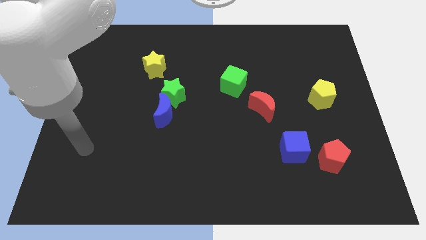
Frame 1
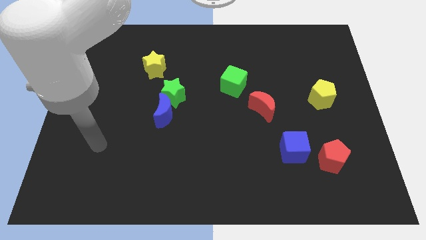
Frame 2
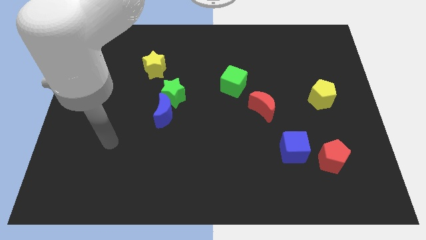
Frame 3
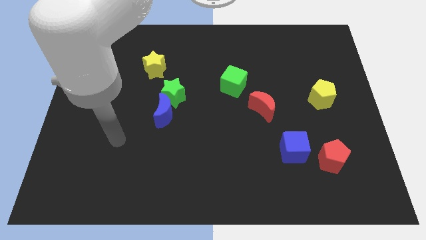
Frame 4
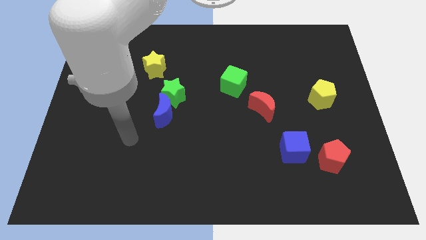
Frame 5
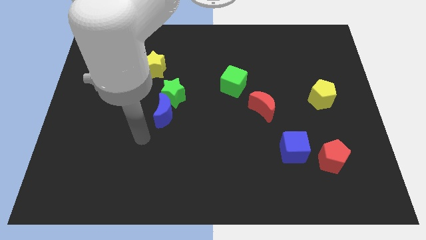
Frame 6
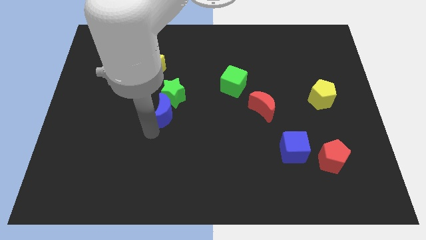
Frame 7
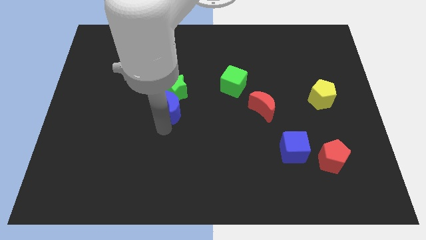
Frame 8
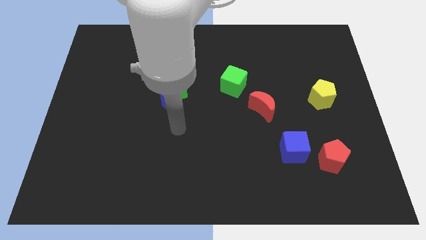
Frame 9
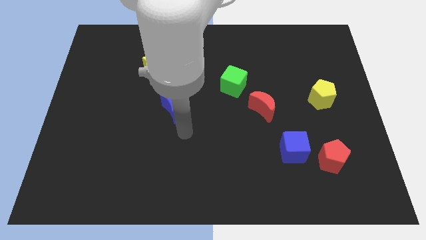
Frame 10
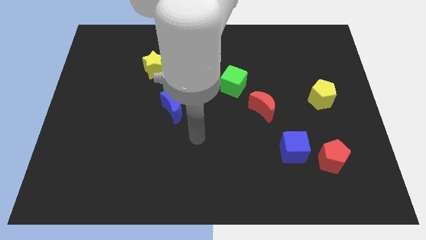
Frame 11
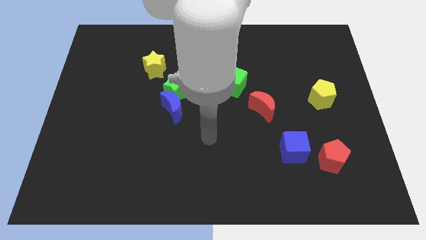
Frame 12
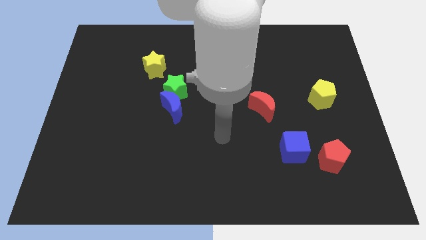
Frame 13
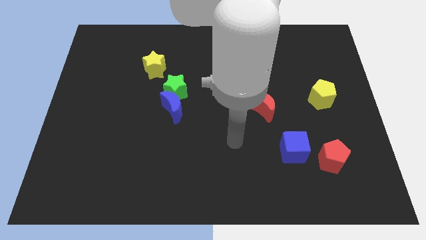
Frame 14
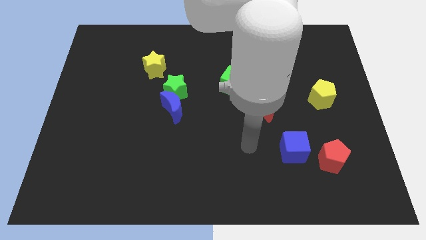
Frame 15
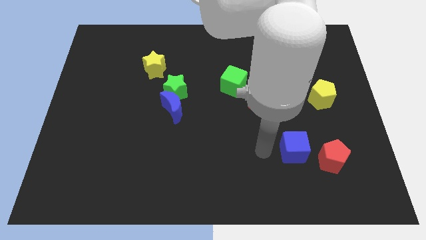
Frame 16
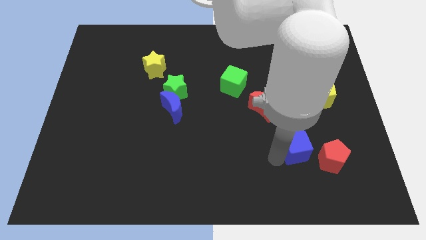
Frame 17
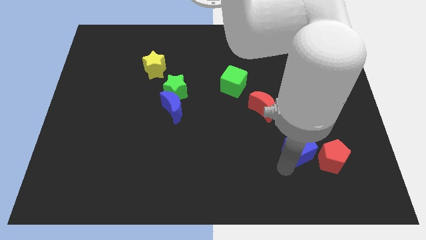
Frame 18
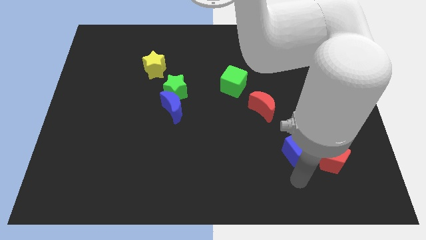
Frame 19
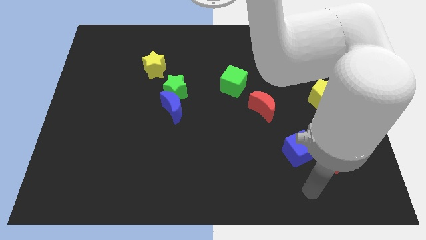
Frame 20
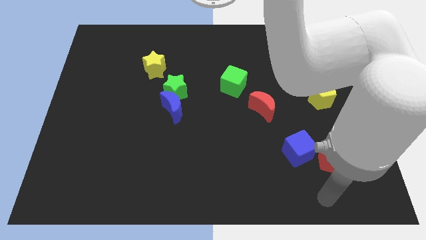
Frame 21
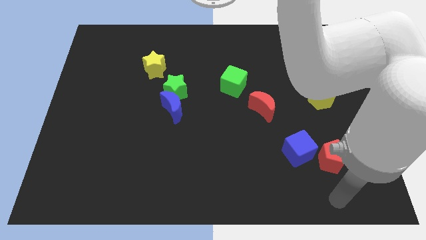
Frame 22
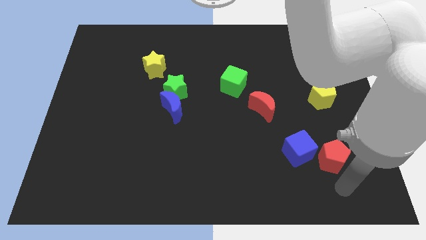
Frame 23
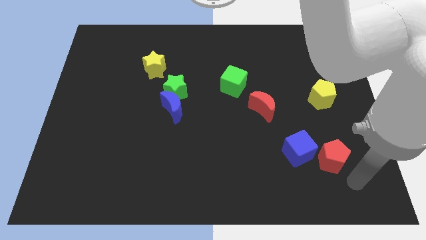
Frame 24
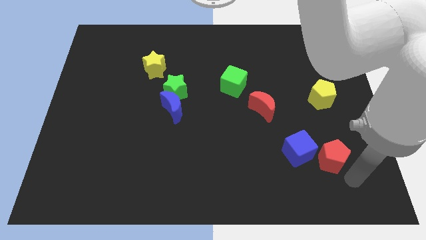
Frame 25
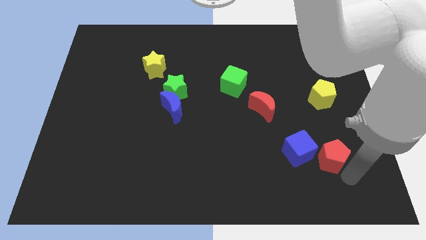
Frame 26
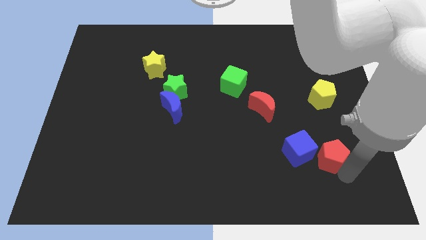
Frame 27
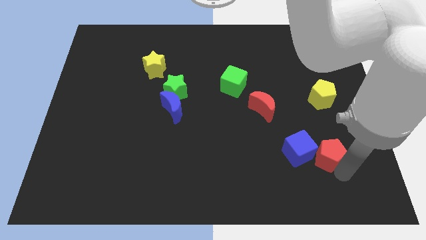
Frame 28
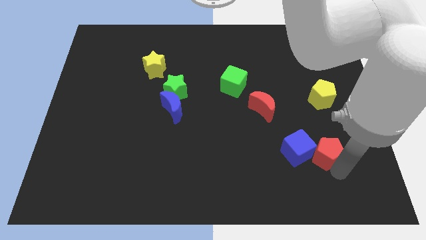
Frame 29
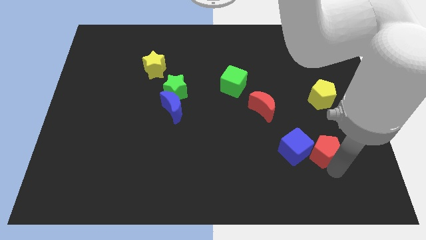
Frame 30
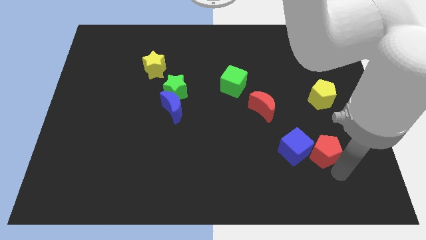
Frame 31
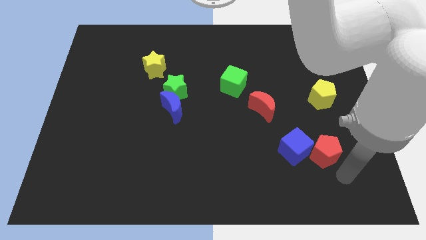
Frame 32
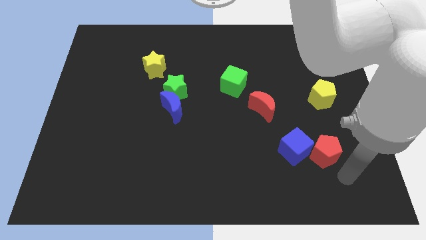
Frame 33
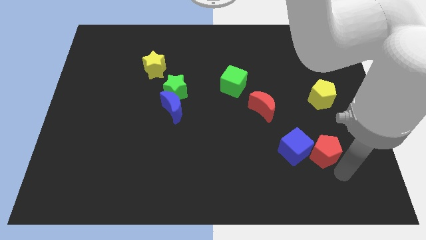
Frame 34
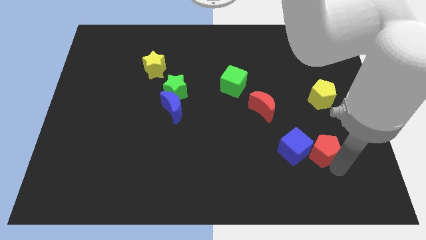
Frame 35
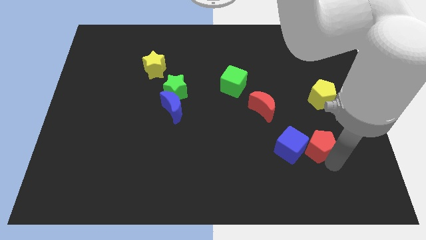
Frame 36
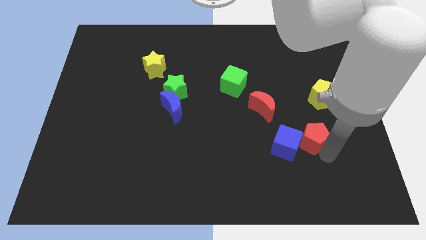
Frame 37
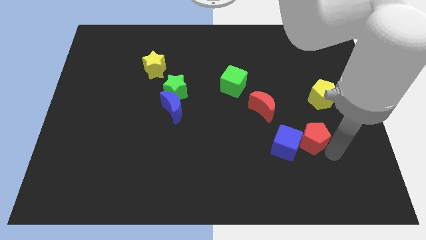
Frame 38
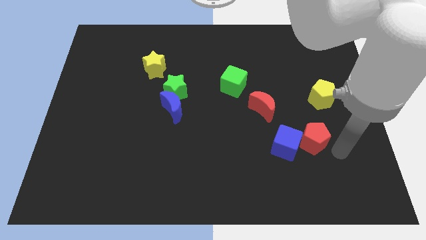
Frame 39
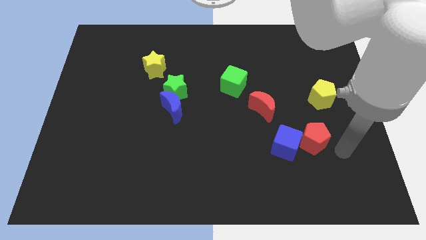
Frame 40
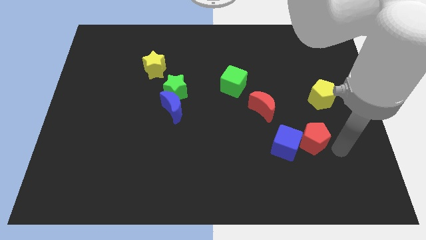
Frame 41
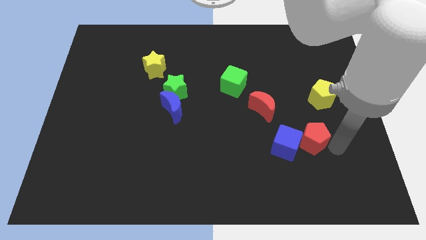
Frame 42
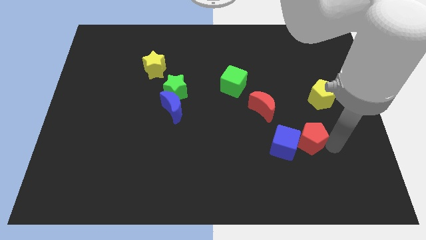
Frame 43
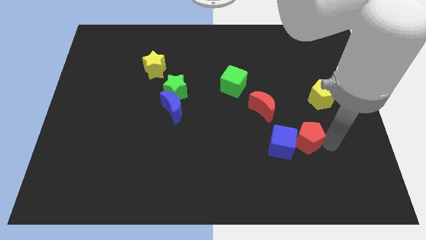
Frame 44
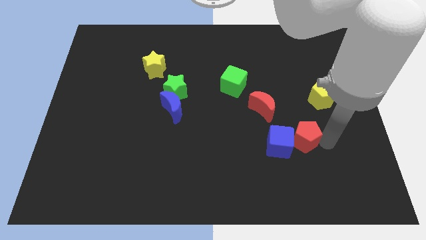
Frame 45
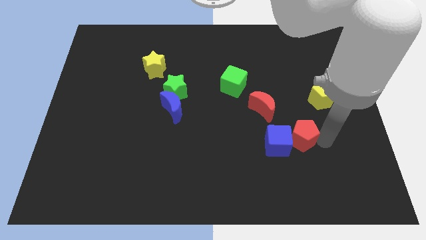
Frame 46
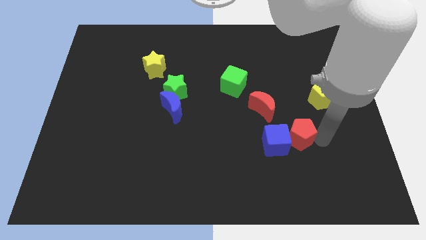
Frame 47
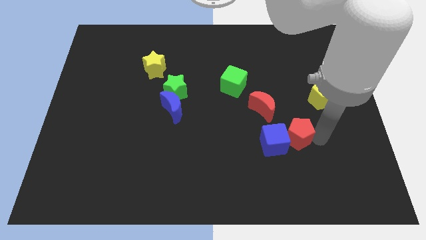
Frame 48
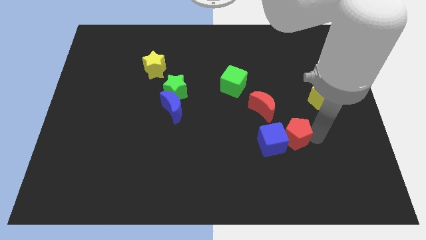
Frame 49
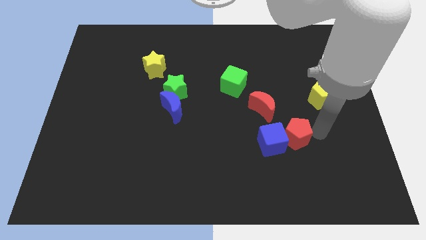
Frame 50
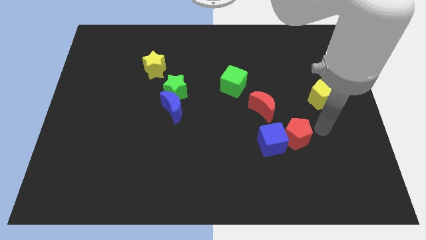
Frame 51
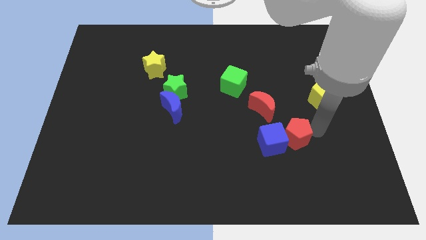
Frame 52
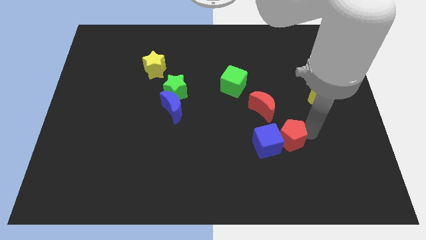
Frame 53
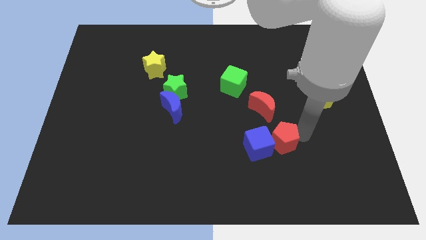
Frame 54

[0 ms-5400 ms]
move the red pentagon to the bottom of the red moon

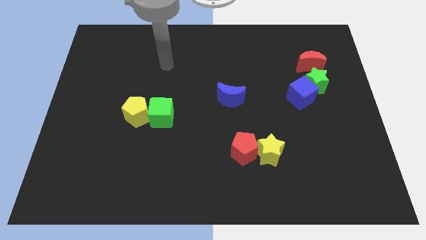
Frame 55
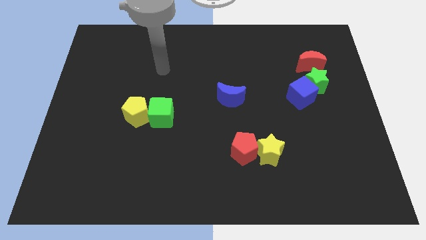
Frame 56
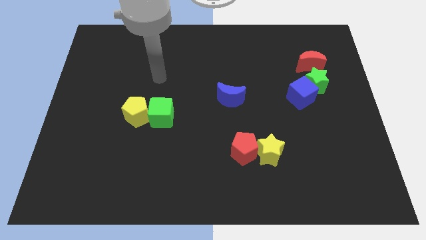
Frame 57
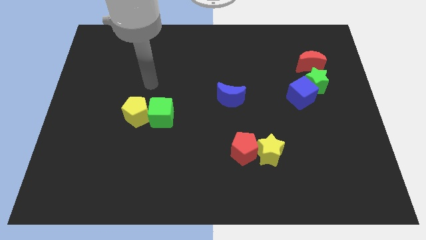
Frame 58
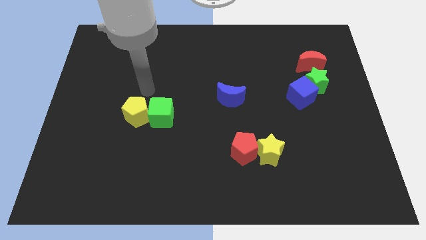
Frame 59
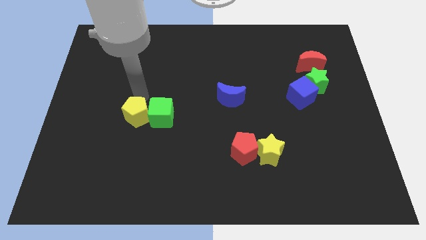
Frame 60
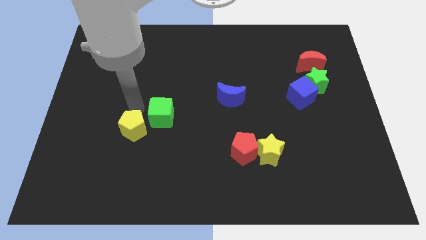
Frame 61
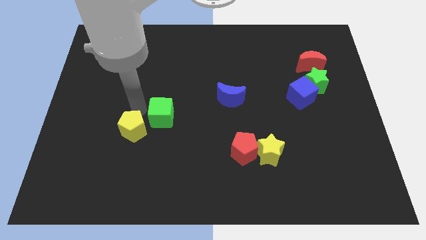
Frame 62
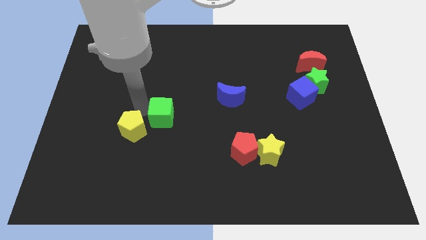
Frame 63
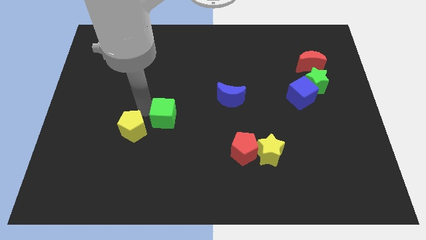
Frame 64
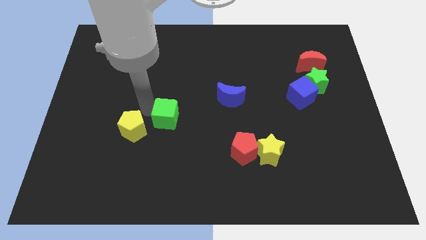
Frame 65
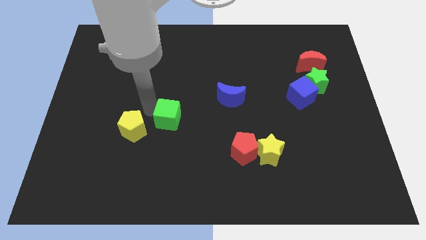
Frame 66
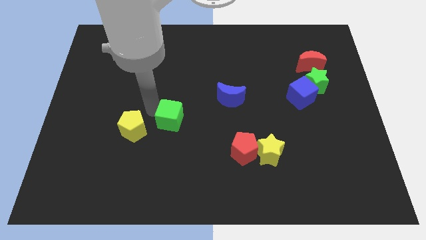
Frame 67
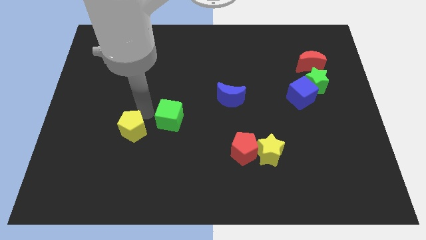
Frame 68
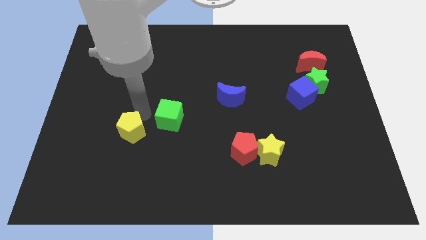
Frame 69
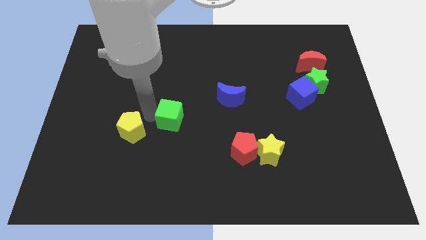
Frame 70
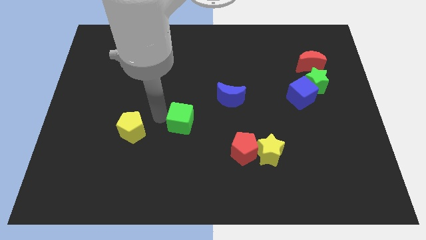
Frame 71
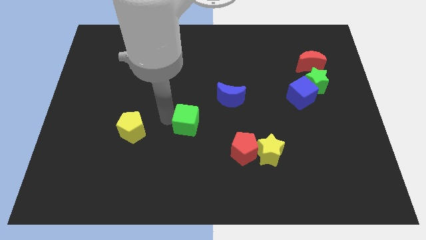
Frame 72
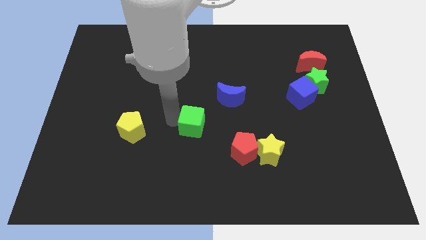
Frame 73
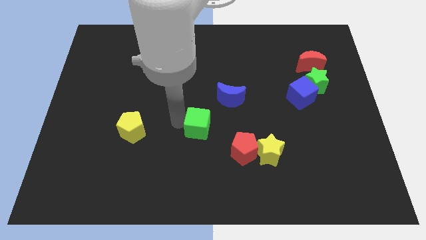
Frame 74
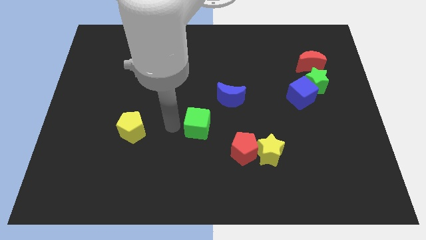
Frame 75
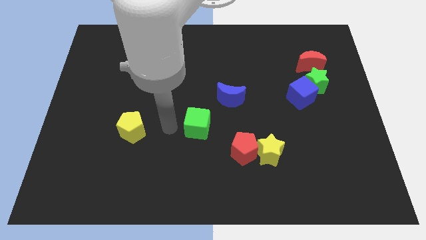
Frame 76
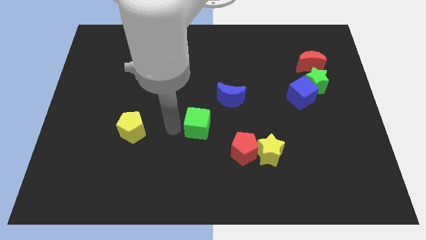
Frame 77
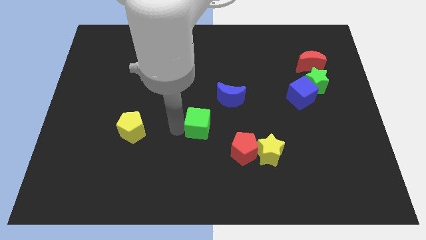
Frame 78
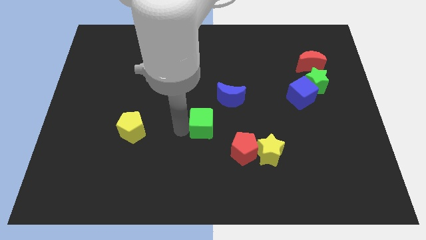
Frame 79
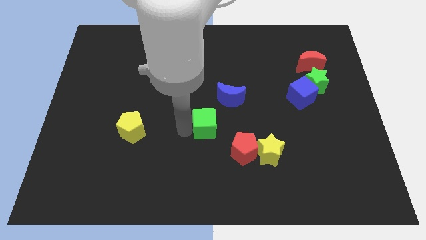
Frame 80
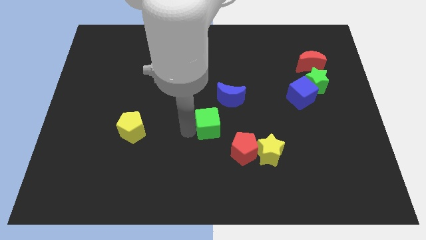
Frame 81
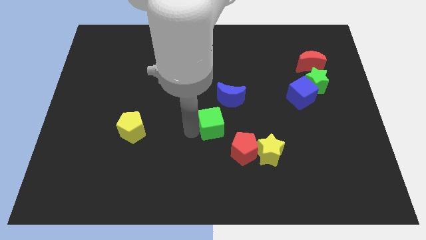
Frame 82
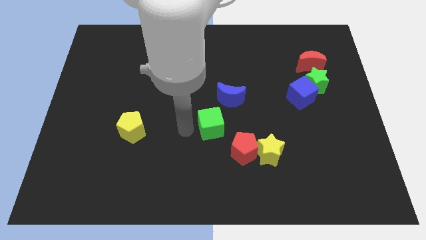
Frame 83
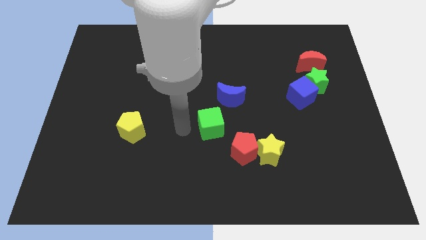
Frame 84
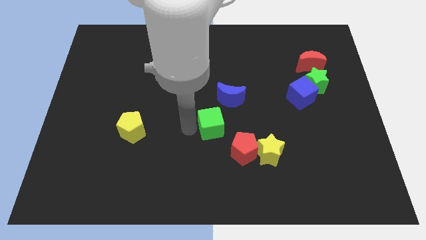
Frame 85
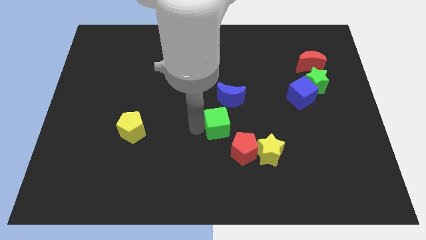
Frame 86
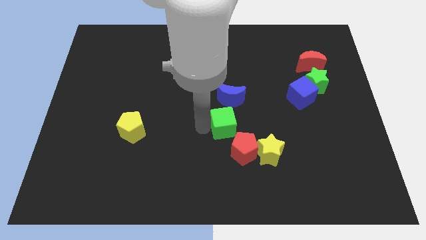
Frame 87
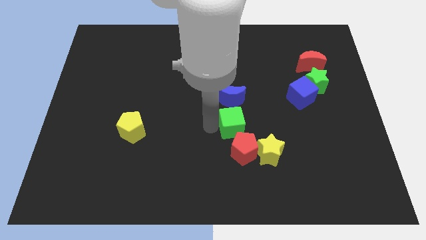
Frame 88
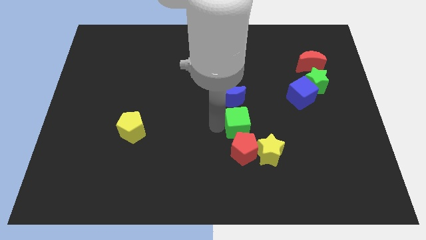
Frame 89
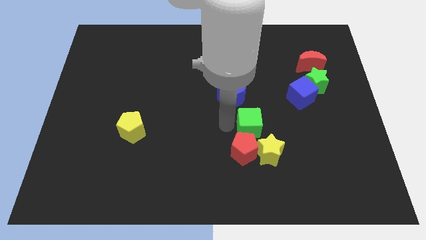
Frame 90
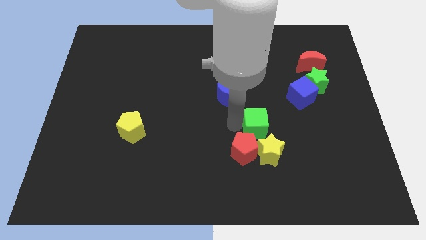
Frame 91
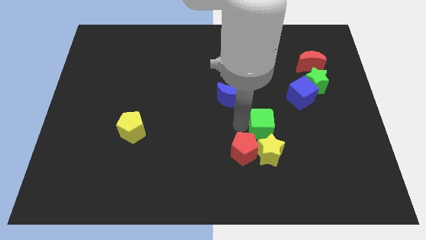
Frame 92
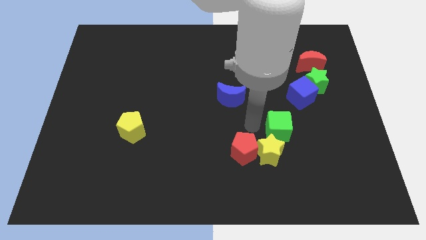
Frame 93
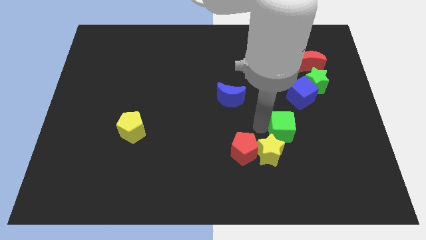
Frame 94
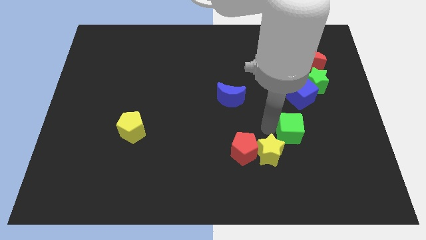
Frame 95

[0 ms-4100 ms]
push the green cube below the blue cube
